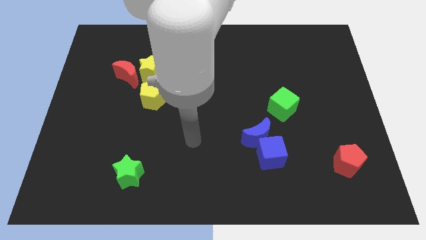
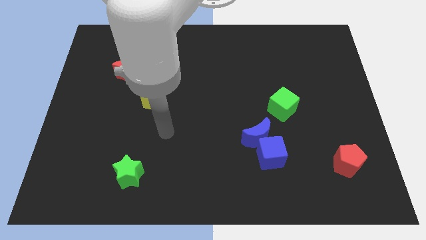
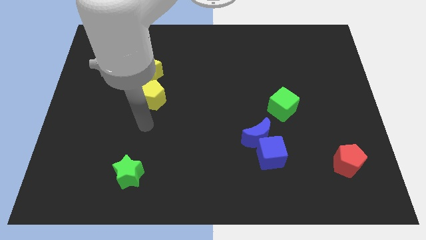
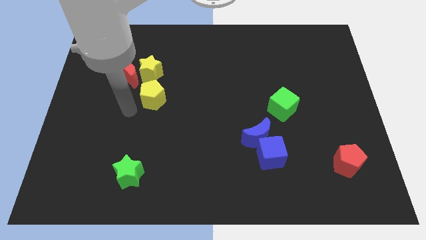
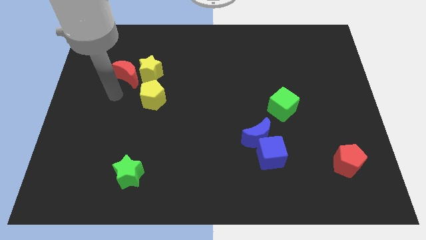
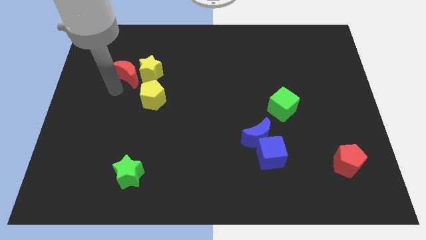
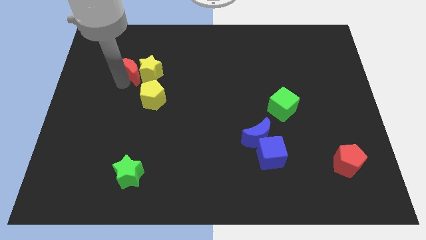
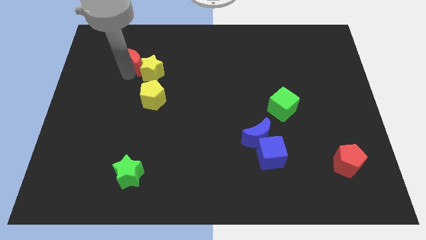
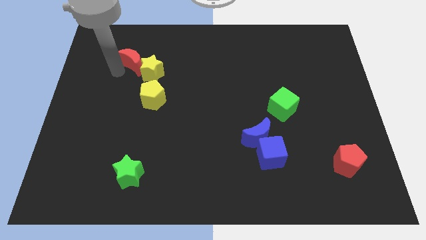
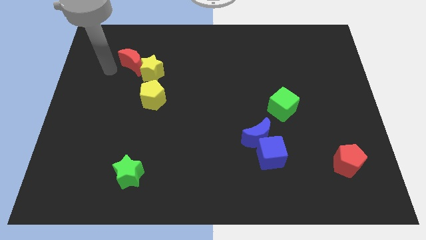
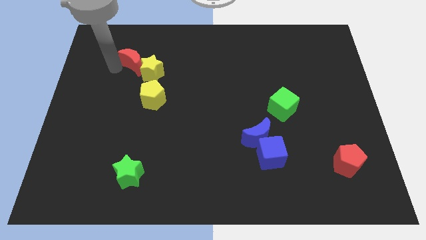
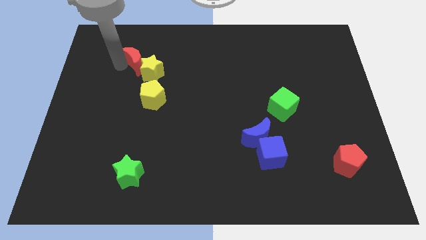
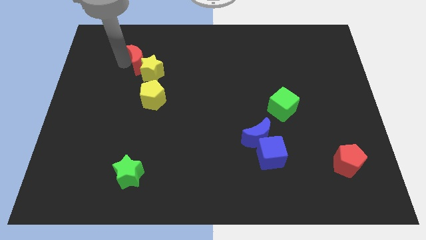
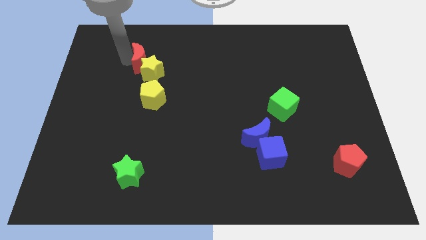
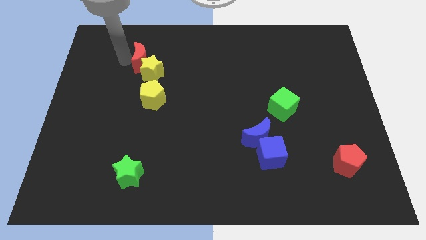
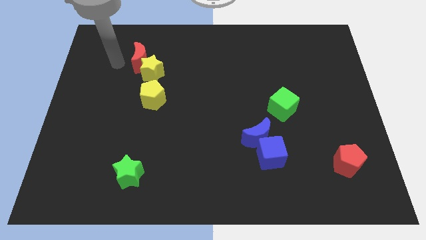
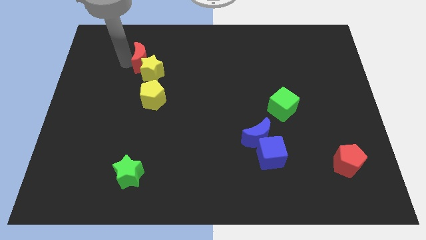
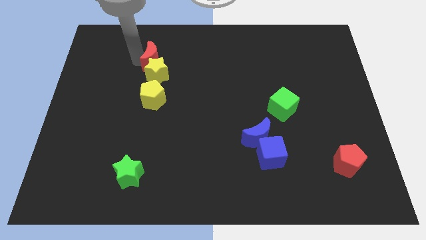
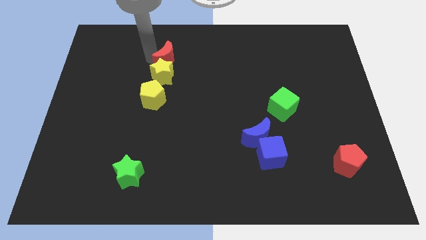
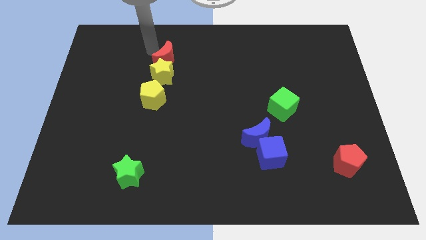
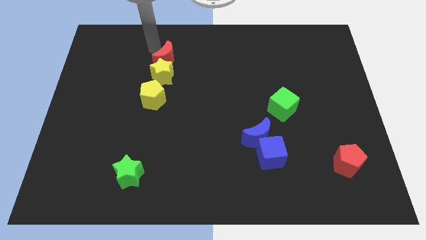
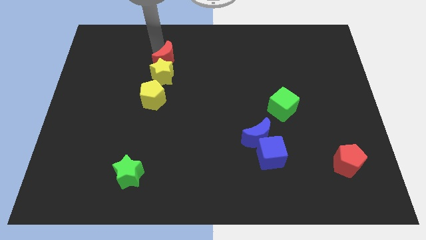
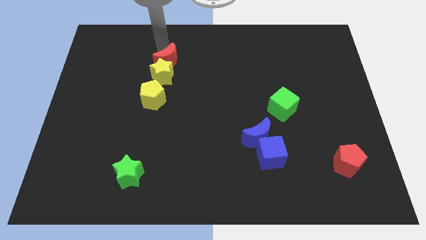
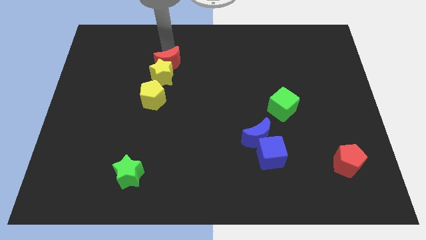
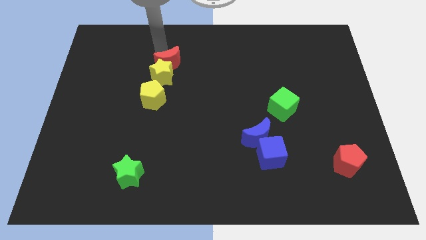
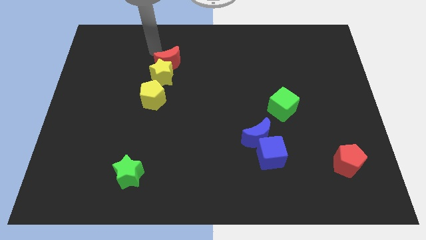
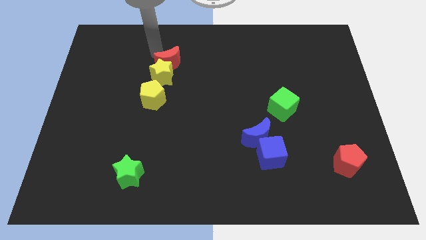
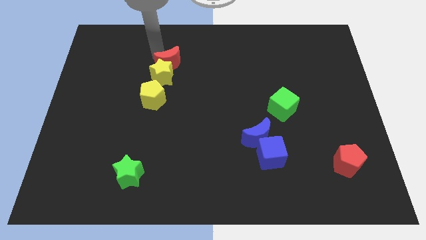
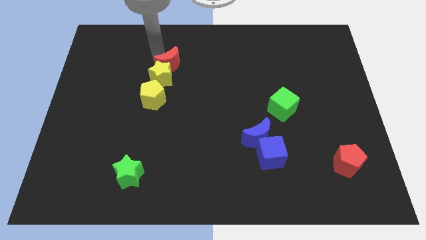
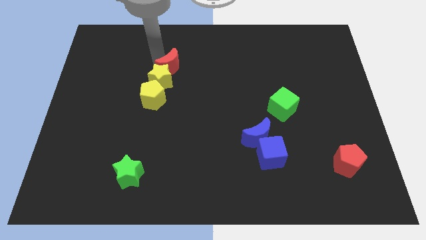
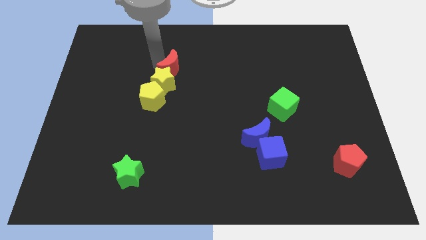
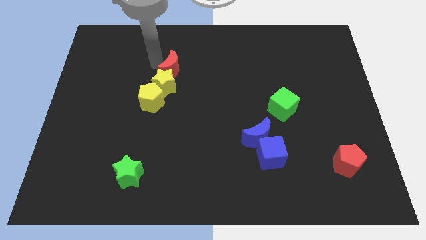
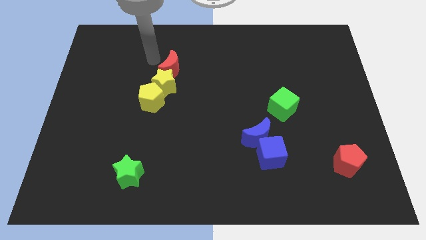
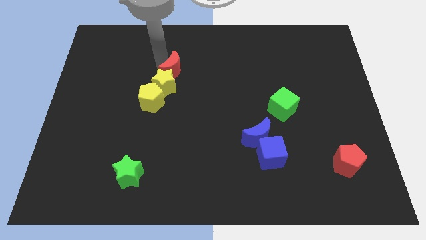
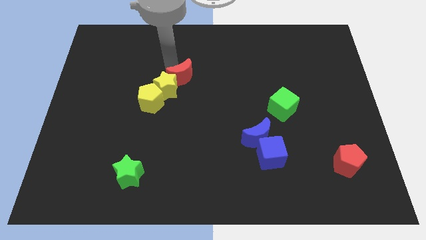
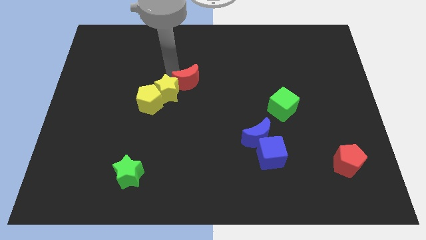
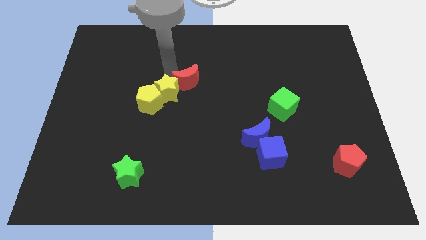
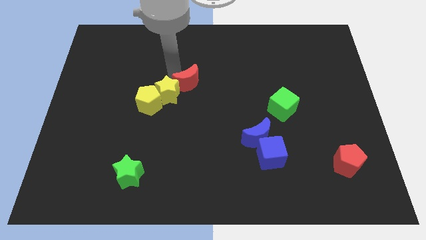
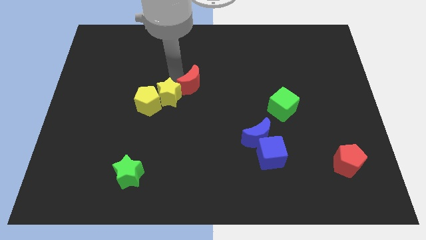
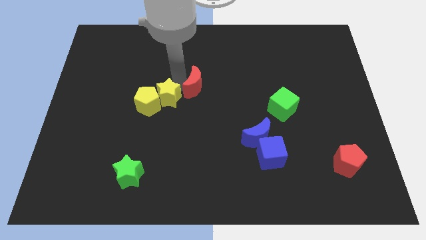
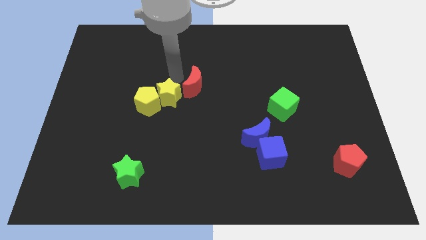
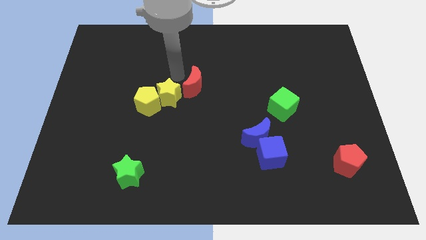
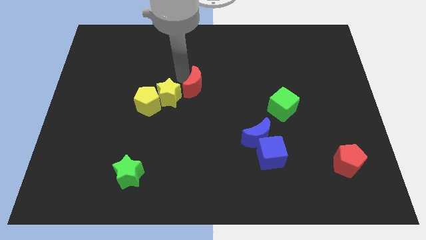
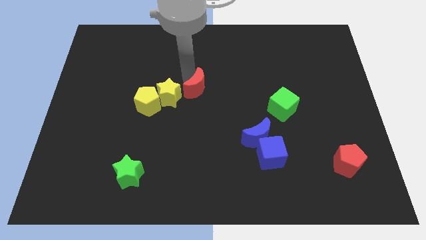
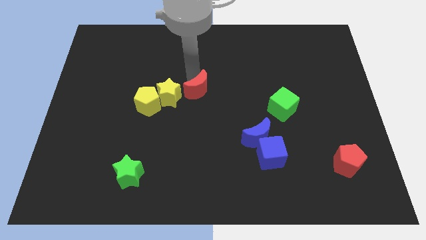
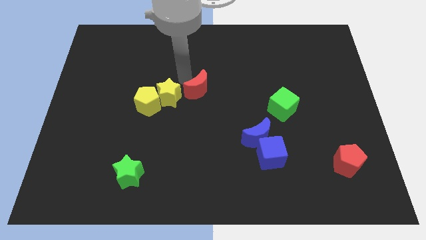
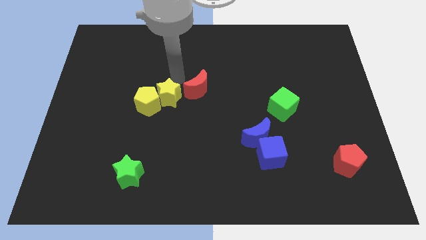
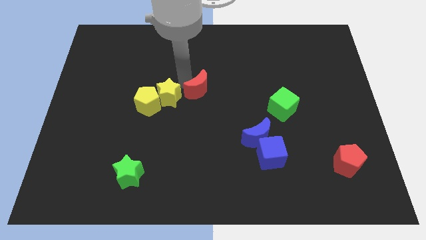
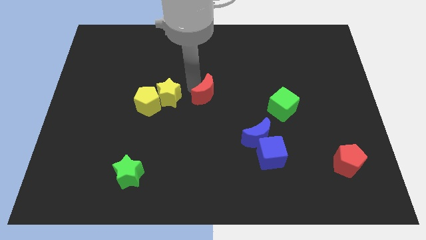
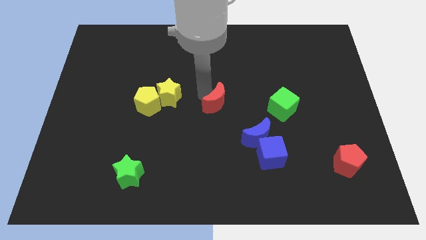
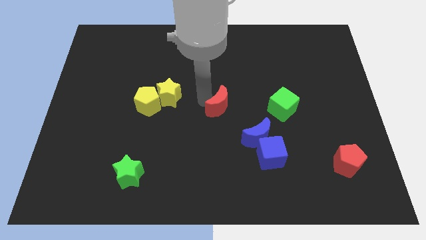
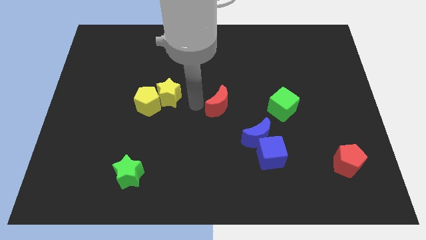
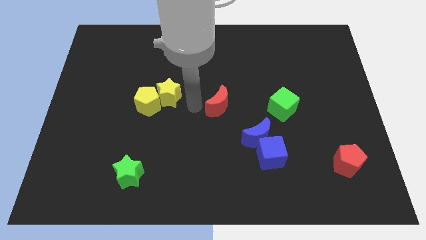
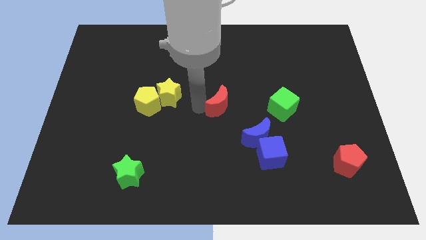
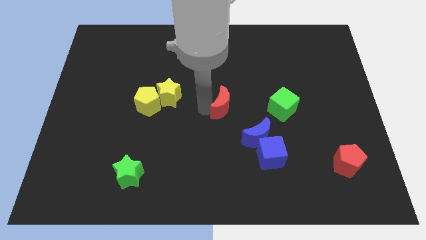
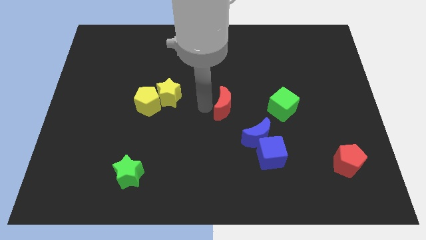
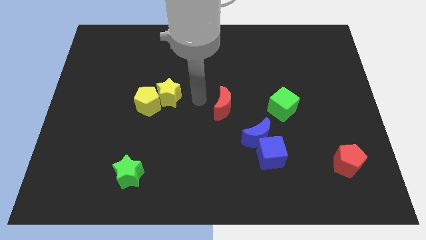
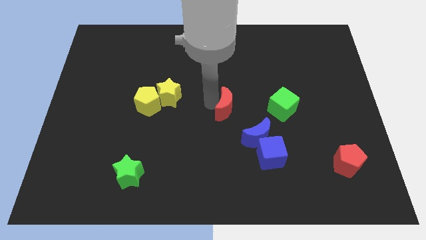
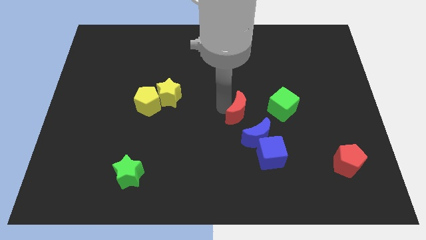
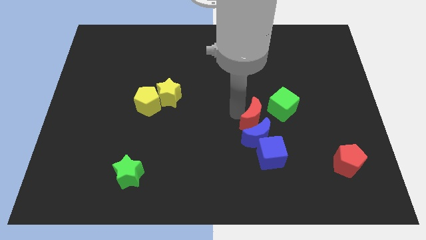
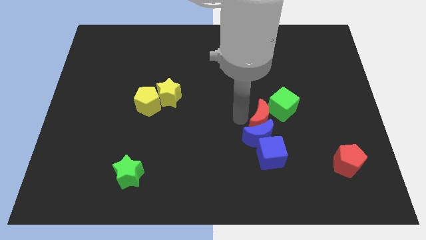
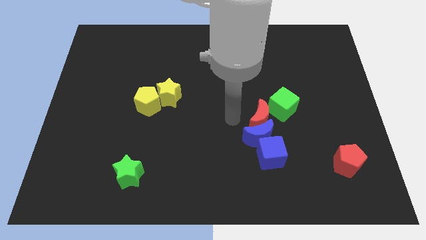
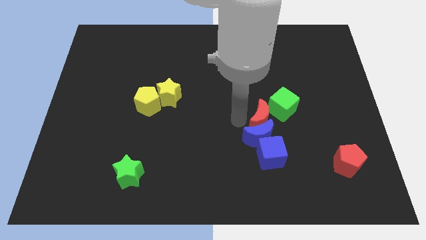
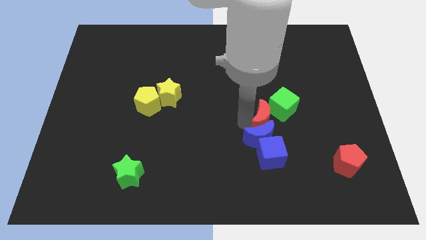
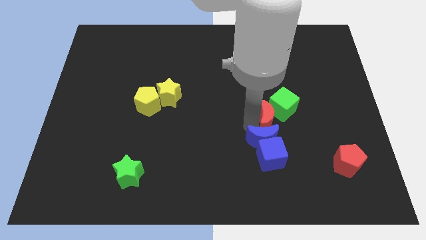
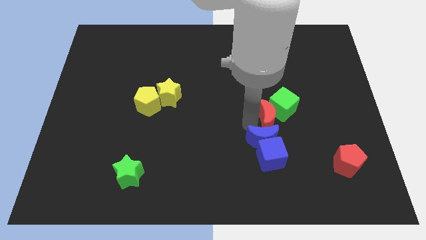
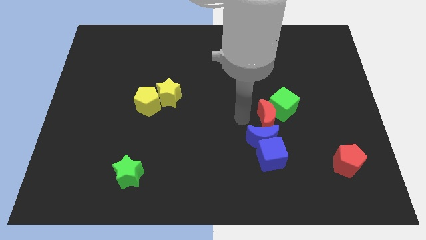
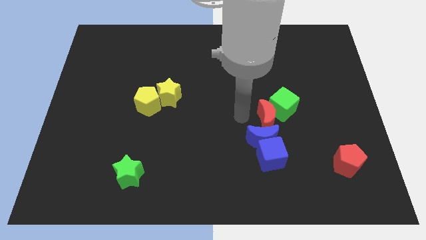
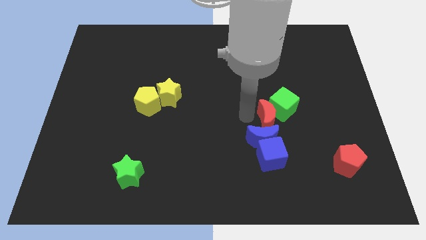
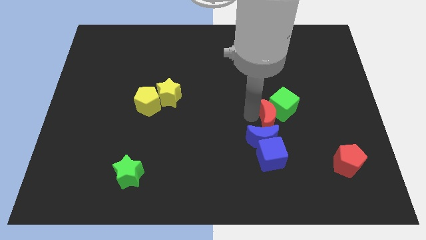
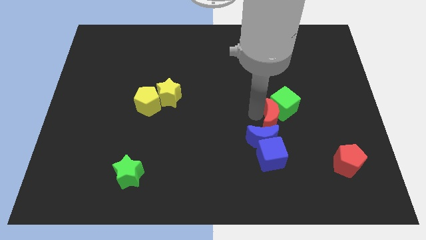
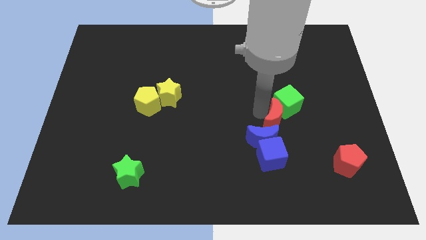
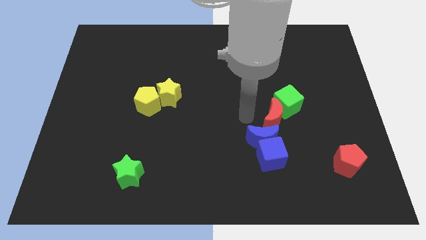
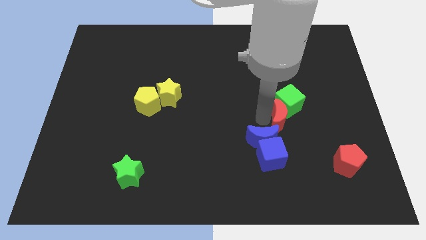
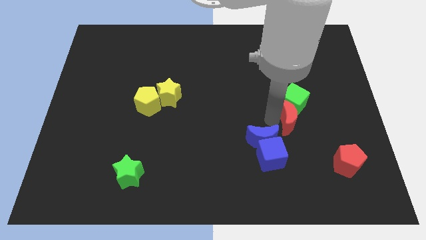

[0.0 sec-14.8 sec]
put the red moon to the bottom right side of the green cube

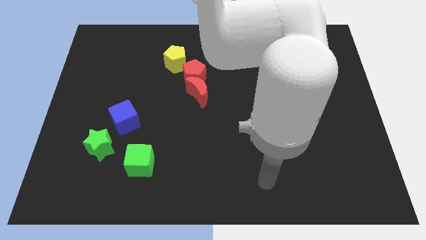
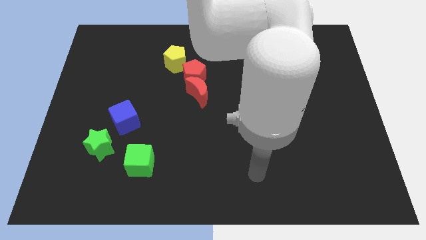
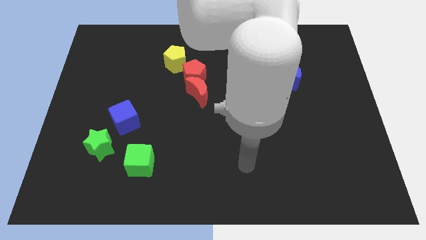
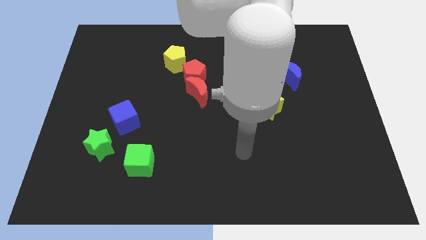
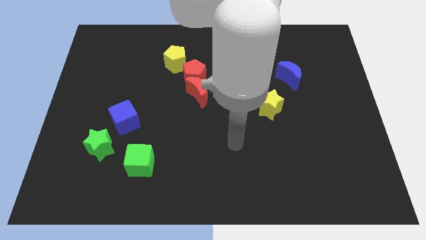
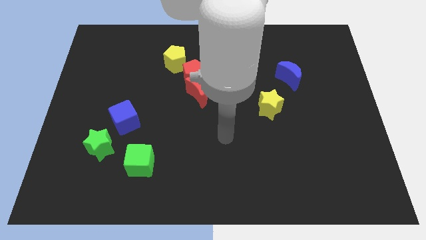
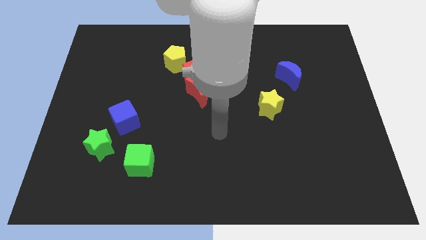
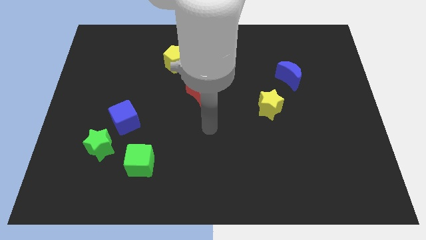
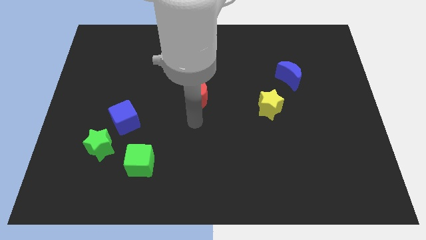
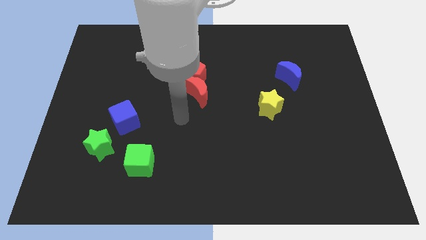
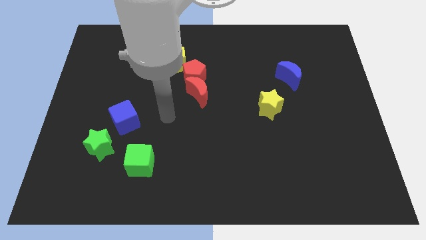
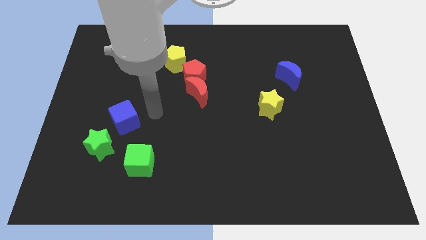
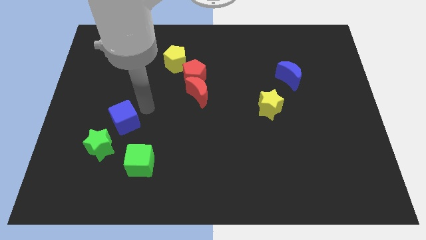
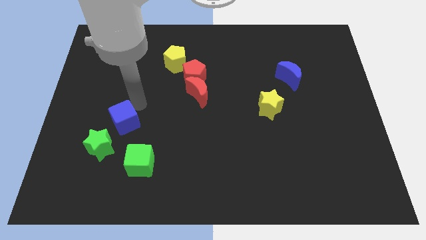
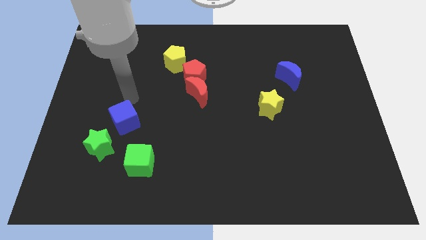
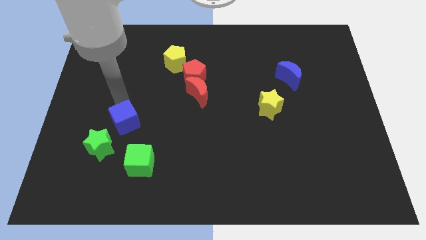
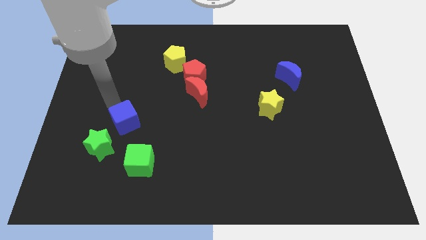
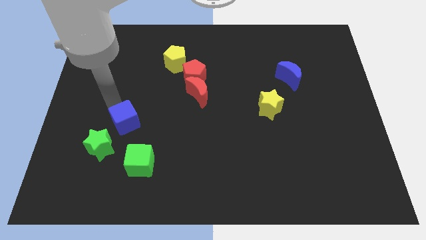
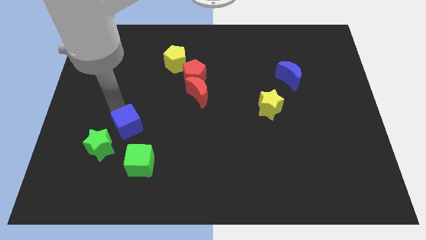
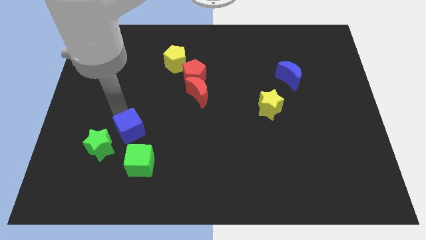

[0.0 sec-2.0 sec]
put the blue cube just right of the green star
